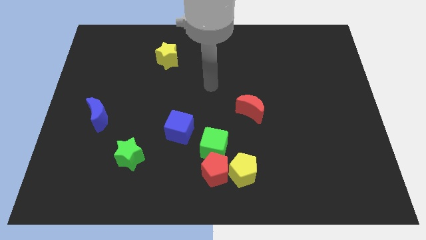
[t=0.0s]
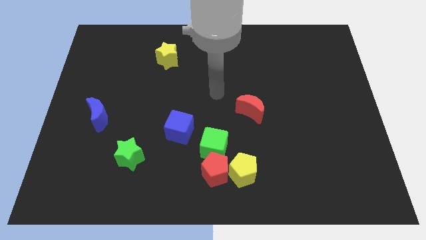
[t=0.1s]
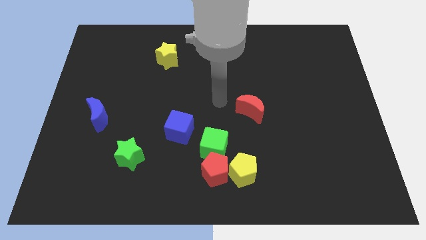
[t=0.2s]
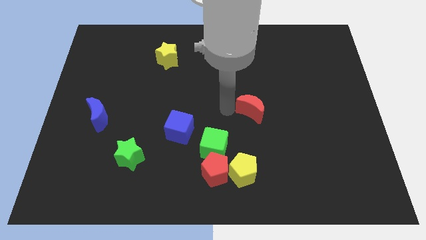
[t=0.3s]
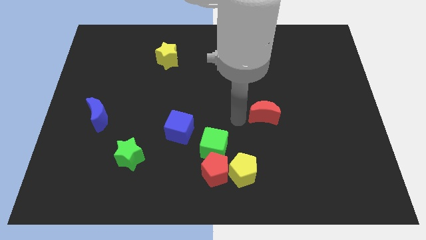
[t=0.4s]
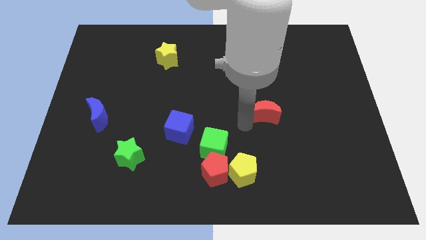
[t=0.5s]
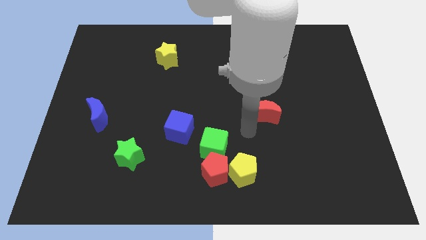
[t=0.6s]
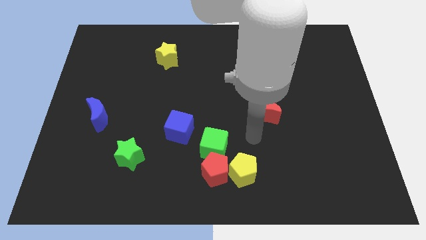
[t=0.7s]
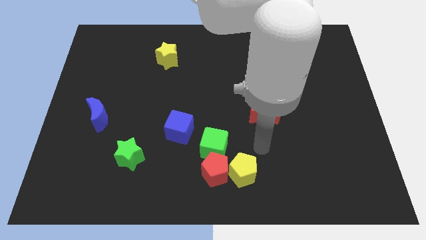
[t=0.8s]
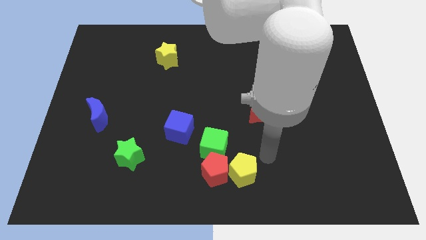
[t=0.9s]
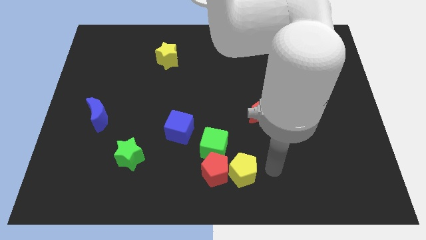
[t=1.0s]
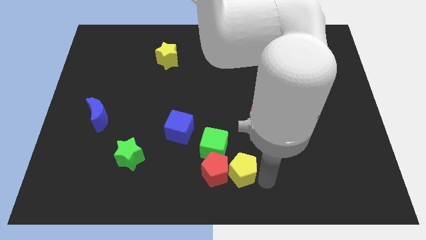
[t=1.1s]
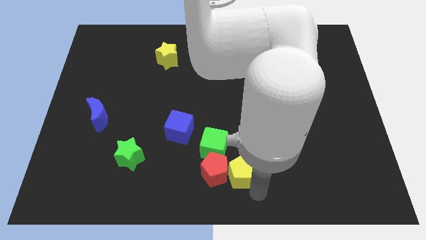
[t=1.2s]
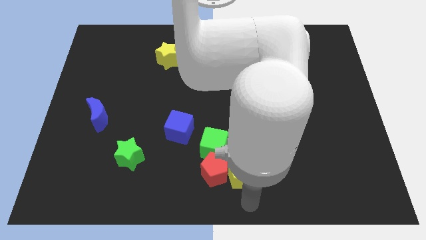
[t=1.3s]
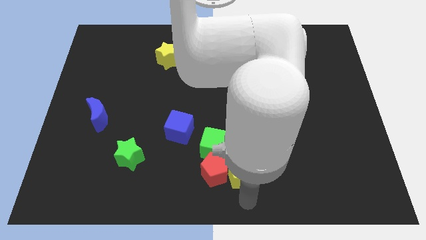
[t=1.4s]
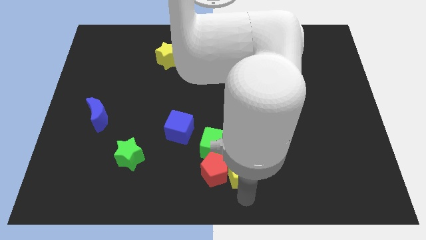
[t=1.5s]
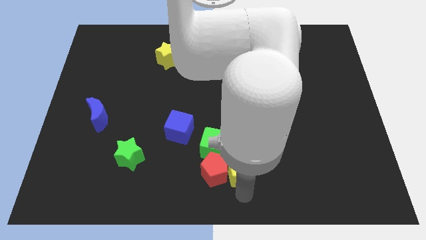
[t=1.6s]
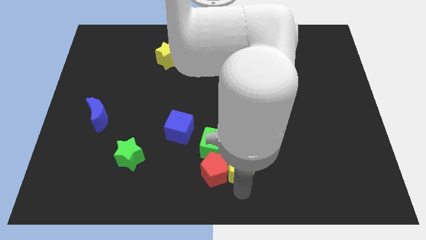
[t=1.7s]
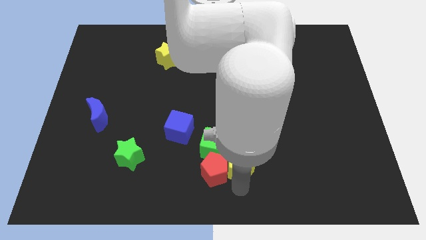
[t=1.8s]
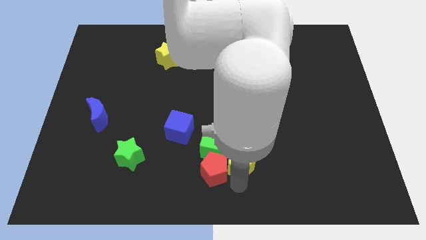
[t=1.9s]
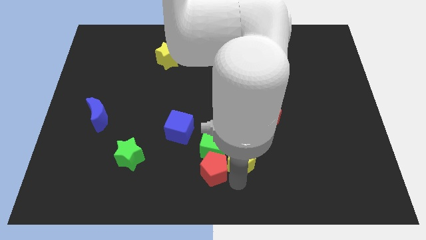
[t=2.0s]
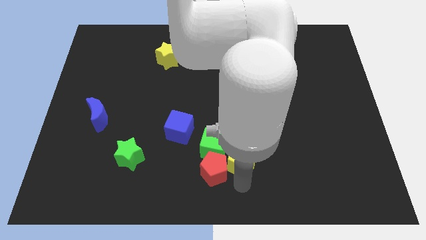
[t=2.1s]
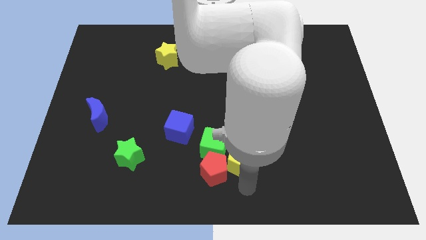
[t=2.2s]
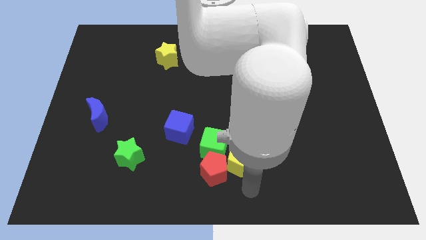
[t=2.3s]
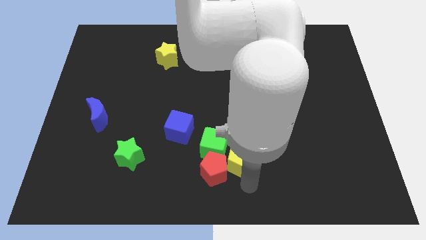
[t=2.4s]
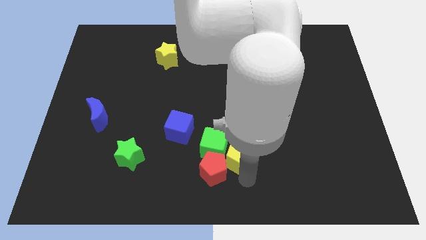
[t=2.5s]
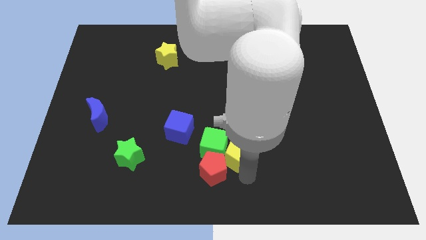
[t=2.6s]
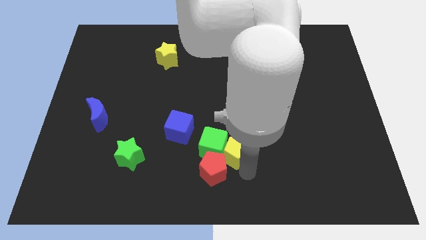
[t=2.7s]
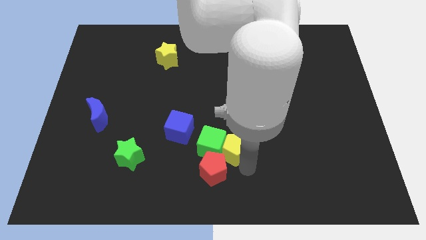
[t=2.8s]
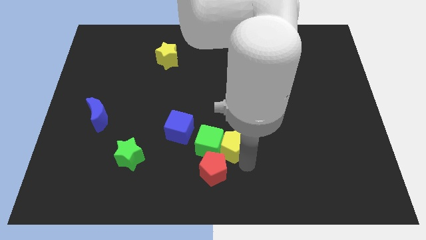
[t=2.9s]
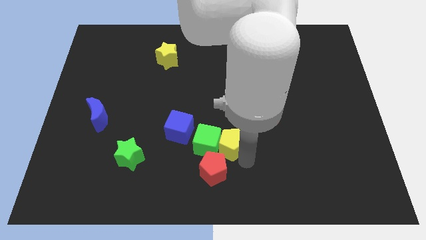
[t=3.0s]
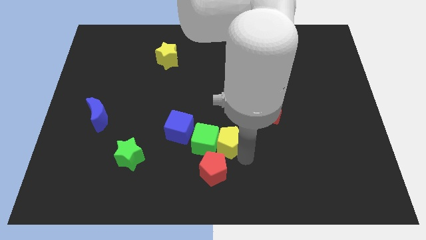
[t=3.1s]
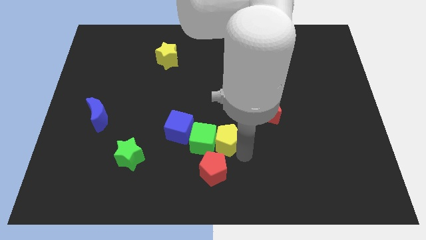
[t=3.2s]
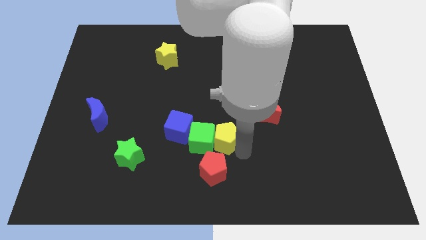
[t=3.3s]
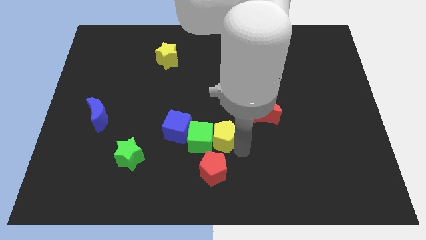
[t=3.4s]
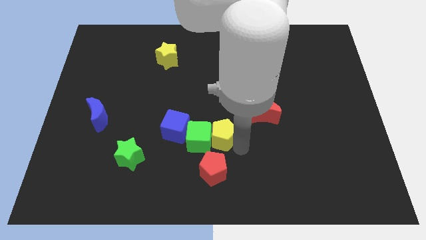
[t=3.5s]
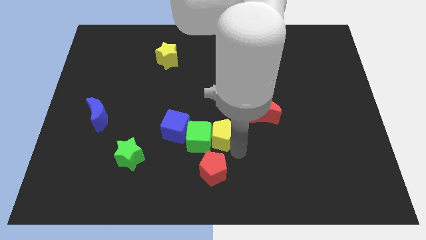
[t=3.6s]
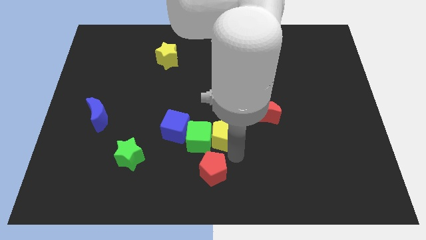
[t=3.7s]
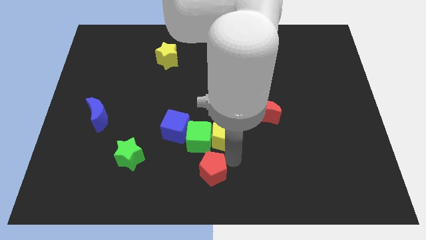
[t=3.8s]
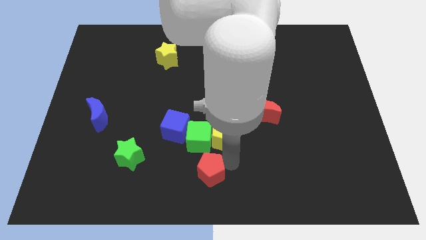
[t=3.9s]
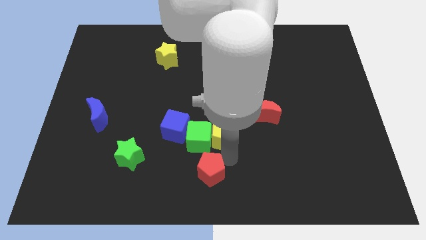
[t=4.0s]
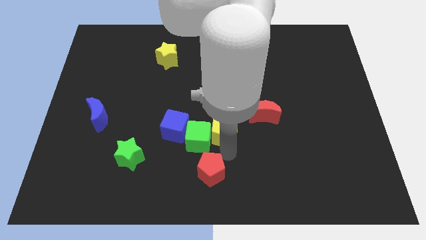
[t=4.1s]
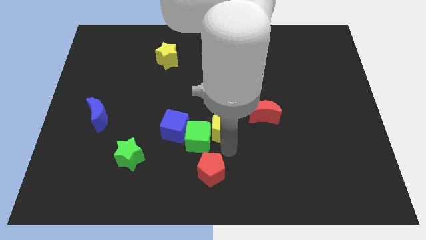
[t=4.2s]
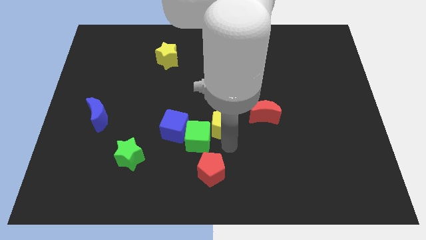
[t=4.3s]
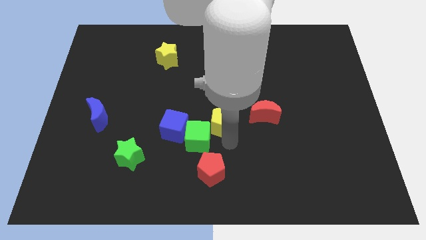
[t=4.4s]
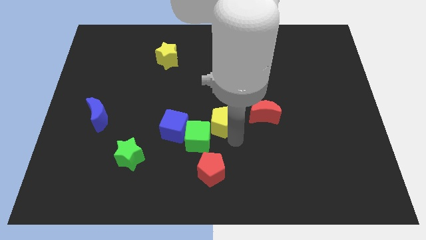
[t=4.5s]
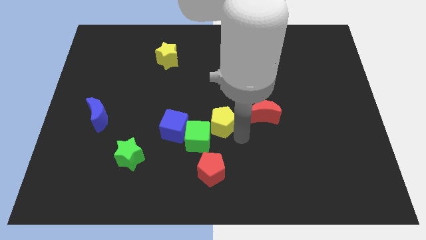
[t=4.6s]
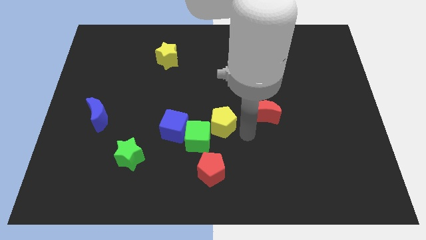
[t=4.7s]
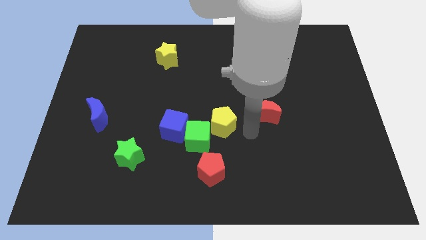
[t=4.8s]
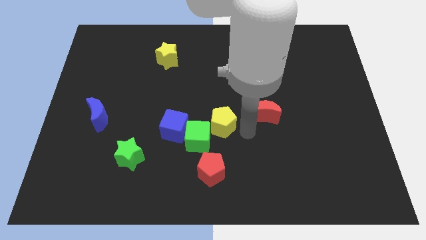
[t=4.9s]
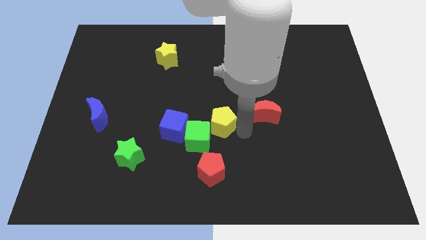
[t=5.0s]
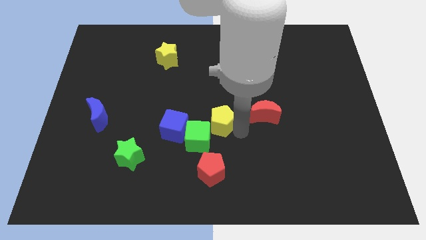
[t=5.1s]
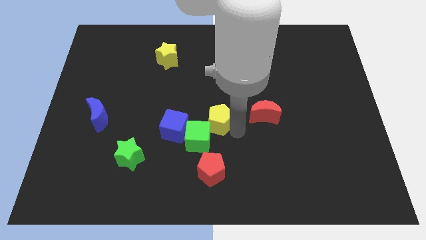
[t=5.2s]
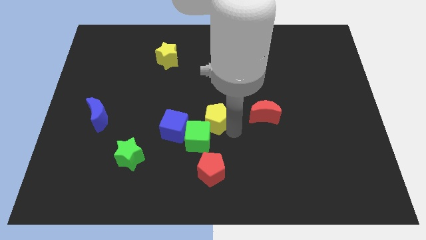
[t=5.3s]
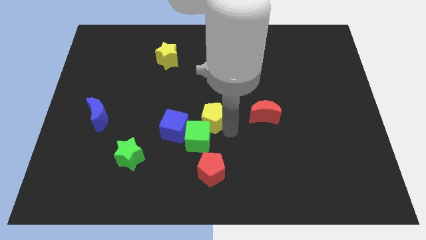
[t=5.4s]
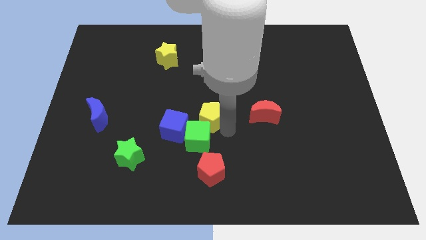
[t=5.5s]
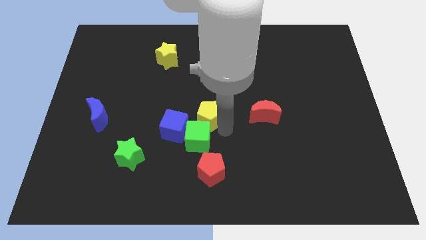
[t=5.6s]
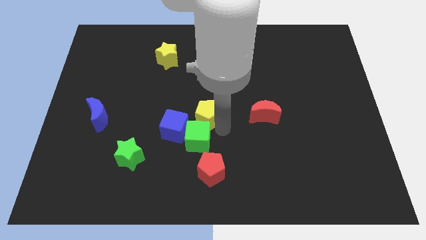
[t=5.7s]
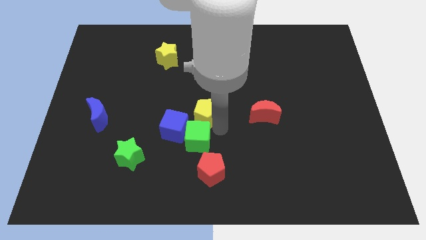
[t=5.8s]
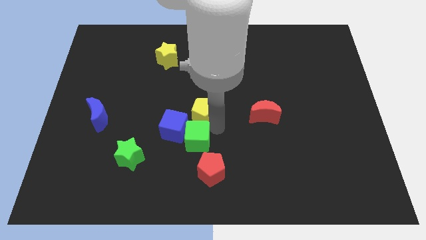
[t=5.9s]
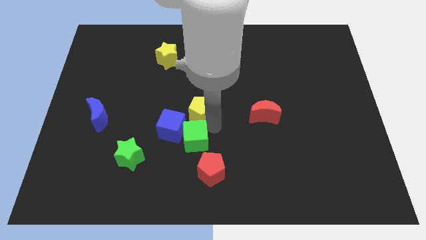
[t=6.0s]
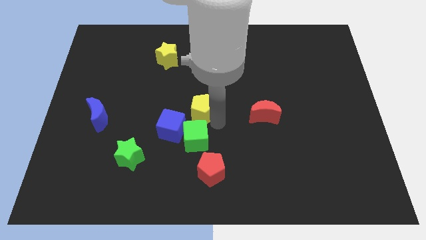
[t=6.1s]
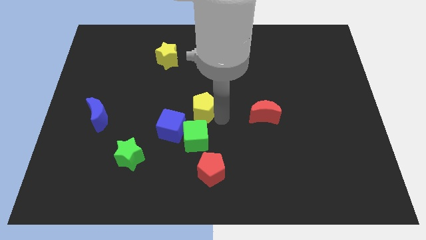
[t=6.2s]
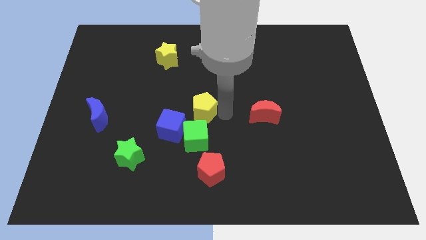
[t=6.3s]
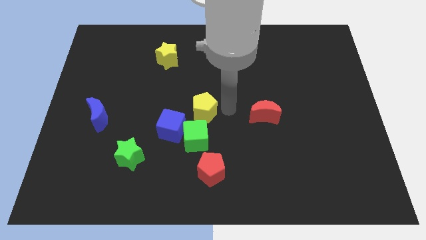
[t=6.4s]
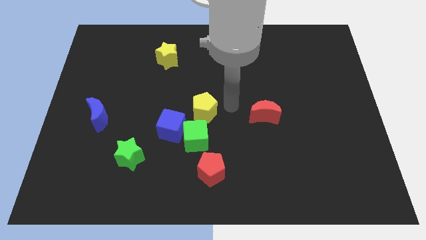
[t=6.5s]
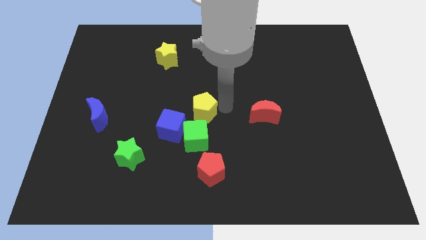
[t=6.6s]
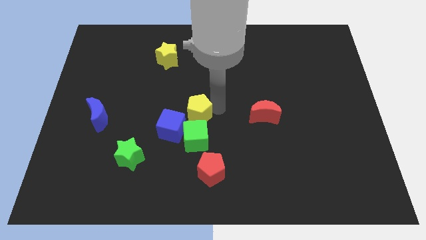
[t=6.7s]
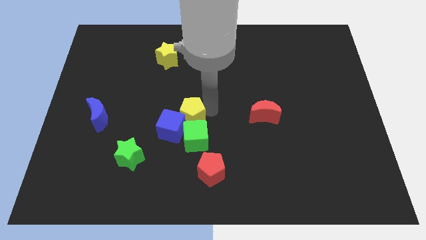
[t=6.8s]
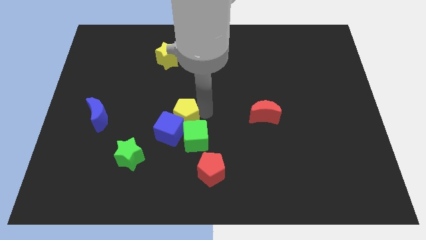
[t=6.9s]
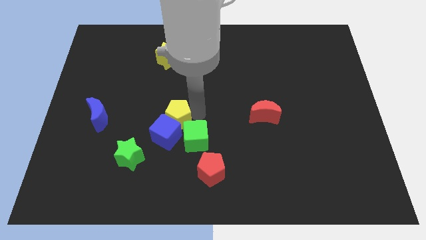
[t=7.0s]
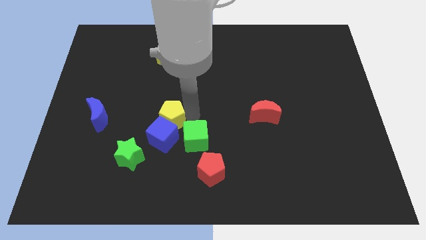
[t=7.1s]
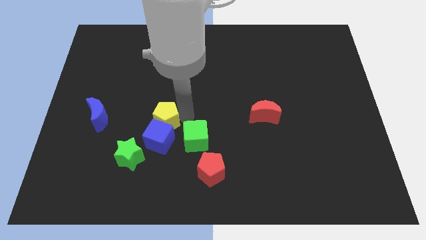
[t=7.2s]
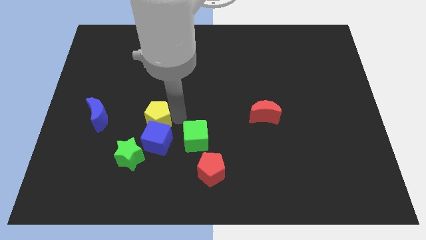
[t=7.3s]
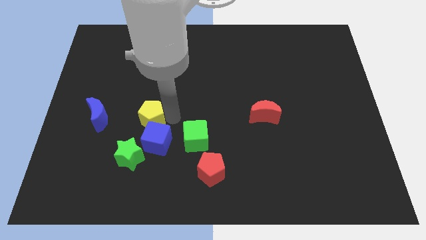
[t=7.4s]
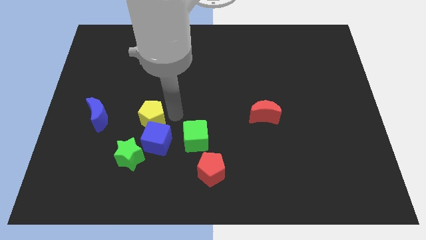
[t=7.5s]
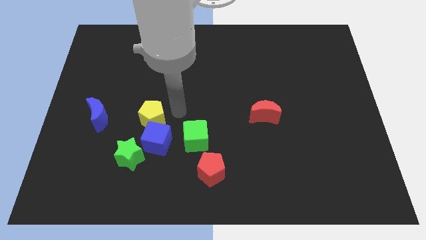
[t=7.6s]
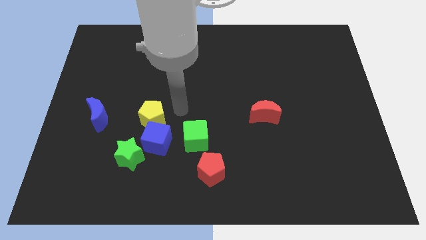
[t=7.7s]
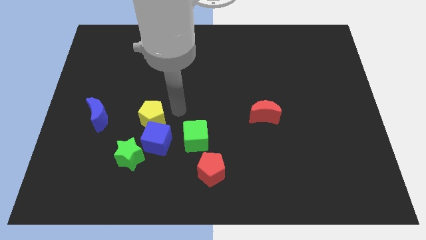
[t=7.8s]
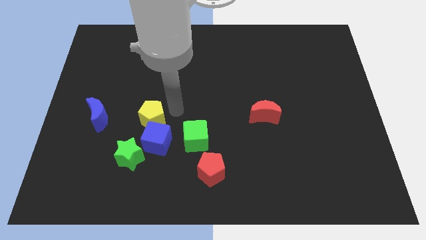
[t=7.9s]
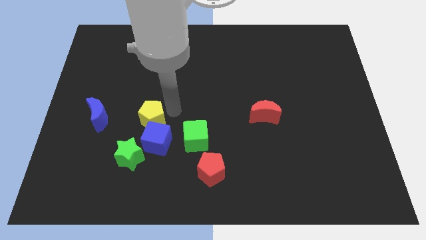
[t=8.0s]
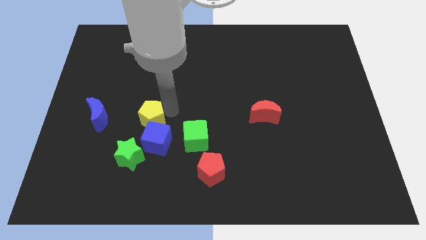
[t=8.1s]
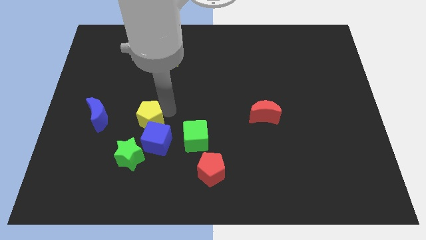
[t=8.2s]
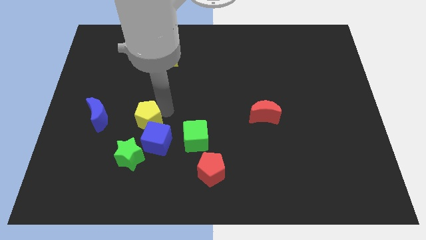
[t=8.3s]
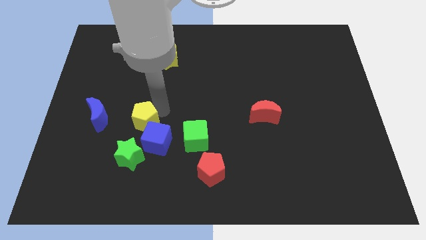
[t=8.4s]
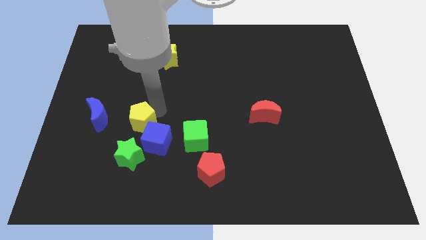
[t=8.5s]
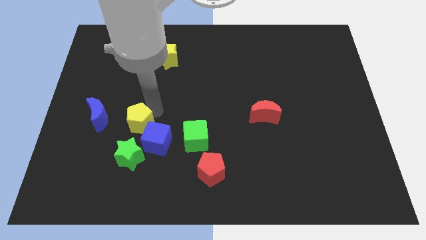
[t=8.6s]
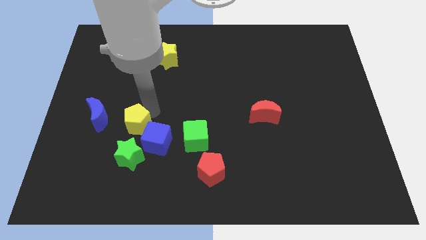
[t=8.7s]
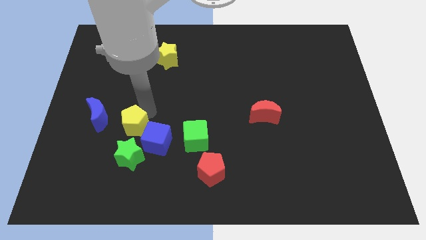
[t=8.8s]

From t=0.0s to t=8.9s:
move the yellow pentagon to the bottom right of the blue moon
